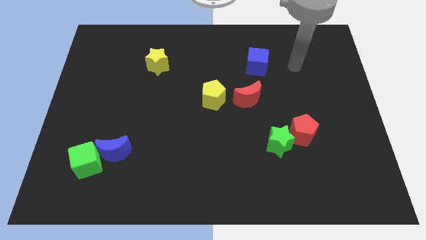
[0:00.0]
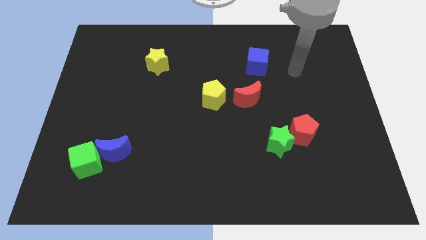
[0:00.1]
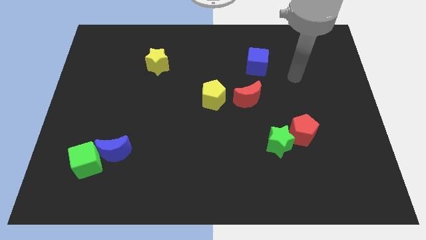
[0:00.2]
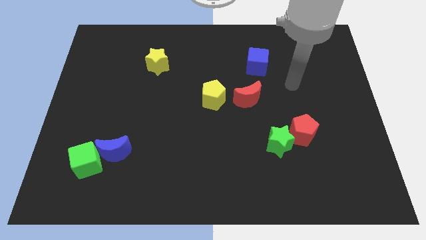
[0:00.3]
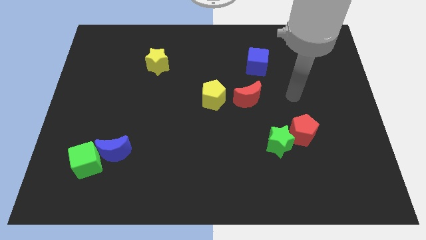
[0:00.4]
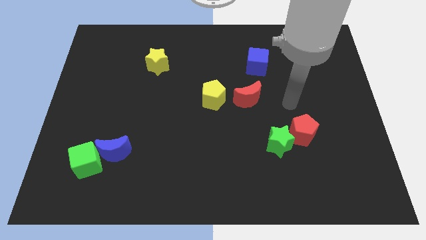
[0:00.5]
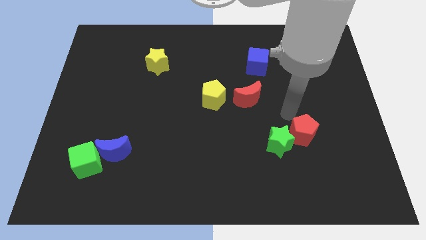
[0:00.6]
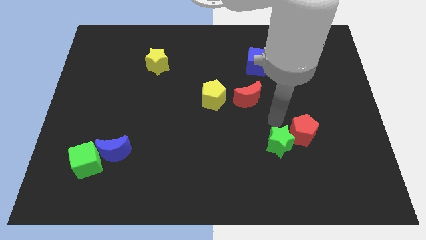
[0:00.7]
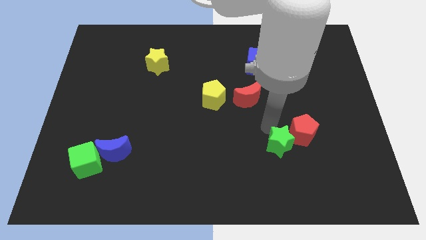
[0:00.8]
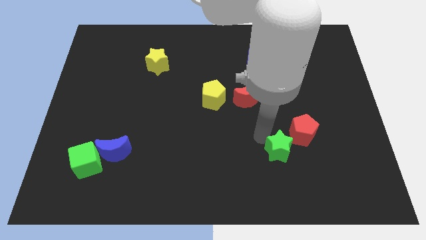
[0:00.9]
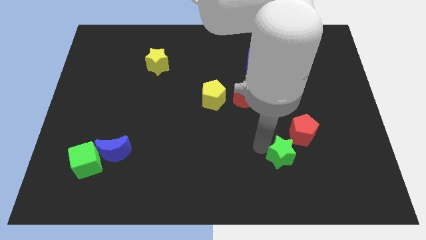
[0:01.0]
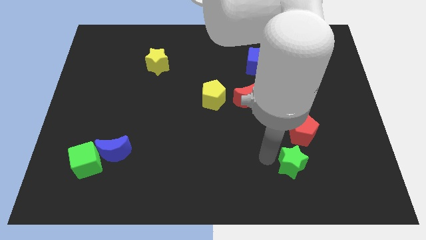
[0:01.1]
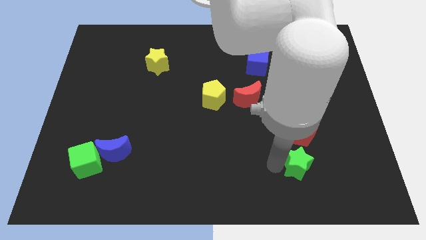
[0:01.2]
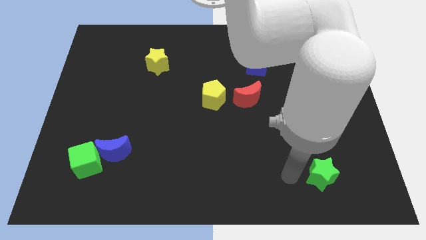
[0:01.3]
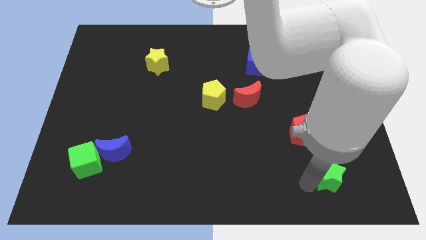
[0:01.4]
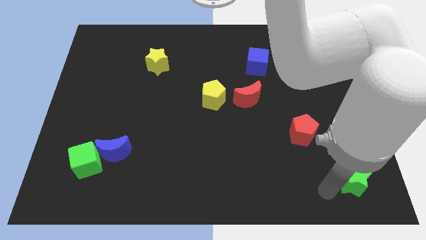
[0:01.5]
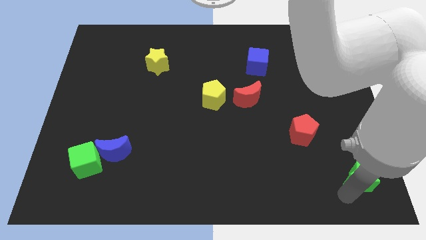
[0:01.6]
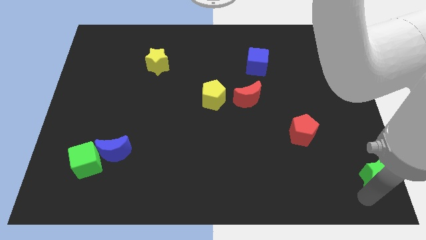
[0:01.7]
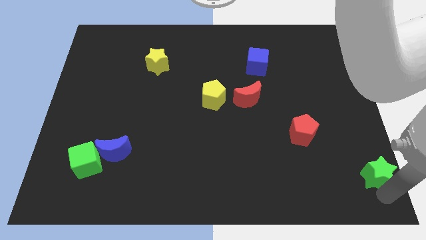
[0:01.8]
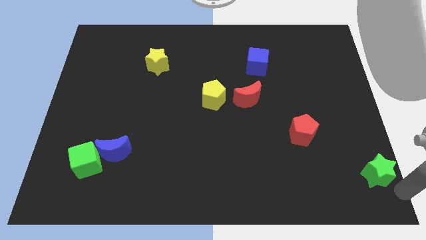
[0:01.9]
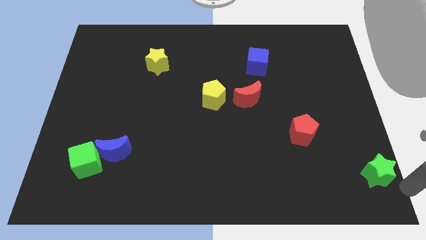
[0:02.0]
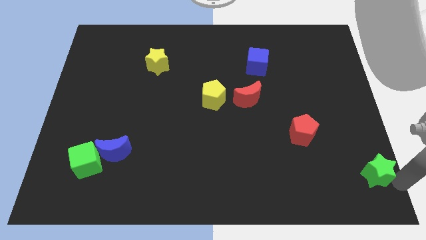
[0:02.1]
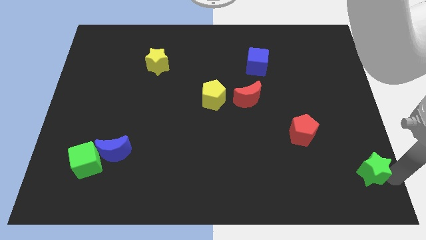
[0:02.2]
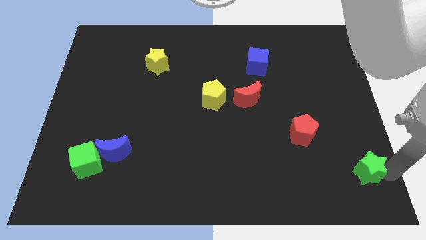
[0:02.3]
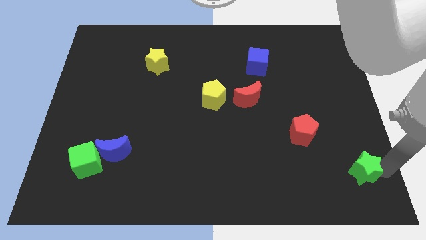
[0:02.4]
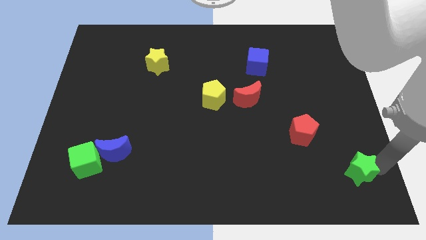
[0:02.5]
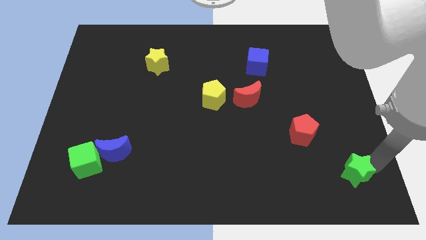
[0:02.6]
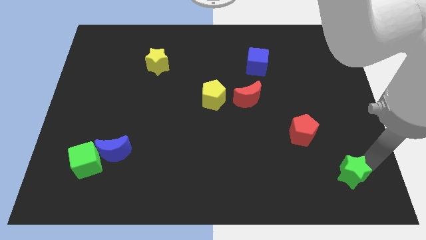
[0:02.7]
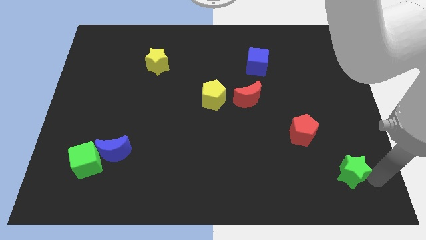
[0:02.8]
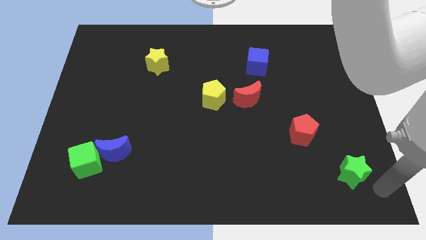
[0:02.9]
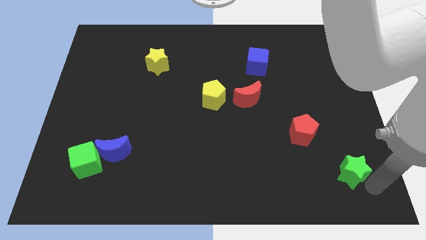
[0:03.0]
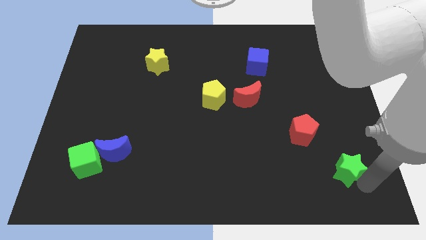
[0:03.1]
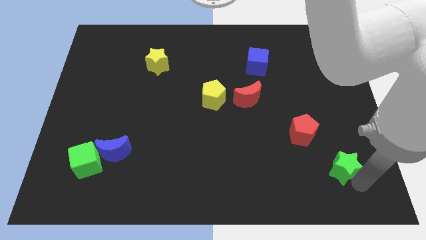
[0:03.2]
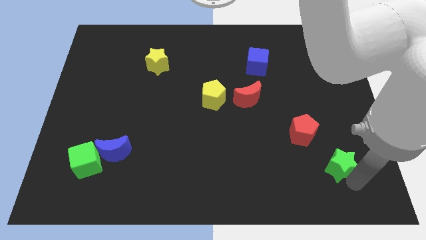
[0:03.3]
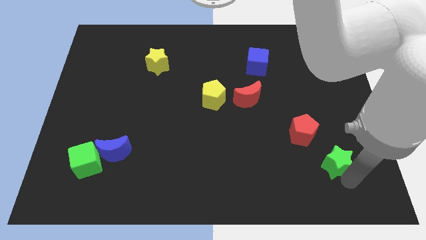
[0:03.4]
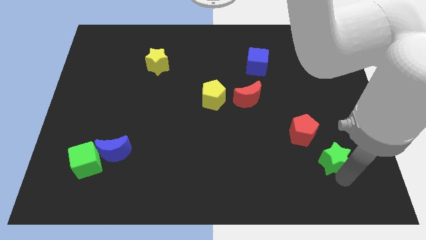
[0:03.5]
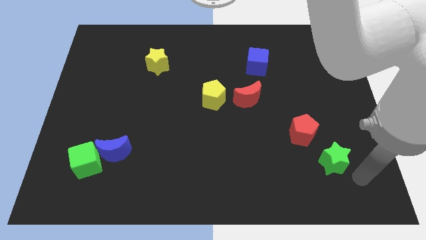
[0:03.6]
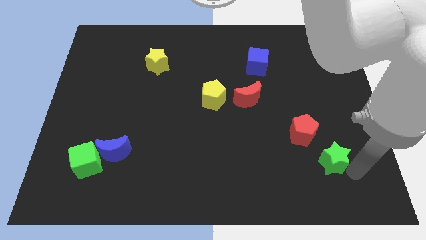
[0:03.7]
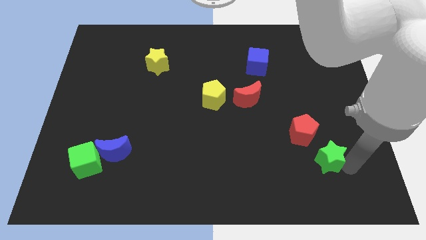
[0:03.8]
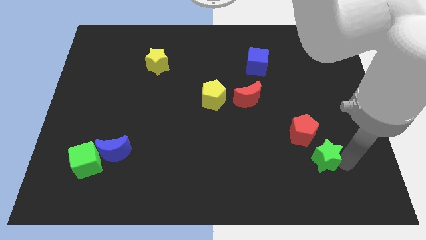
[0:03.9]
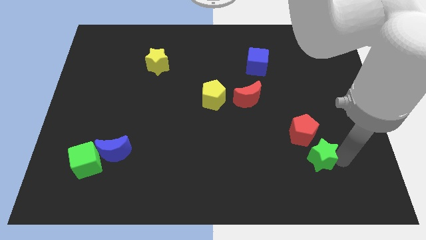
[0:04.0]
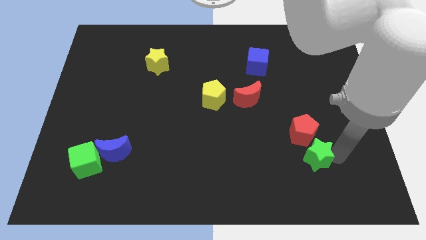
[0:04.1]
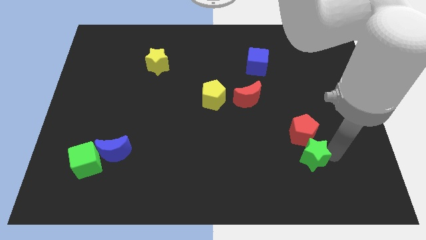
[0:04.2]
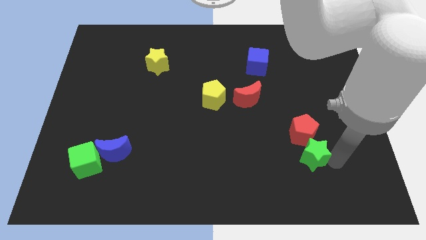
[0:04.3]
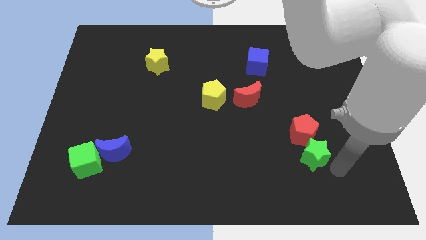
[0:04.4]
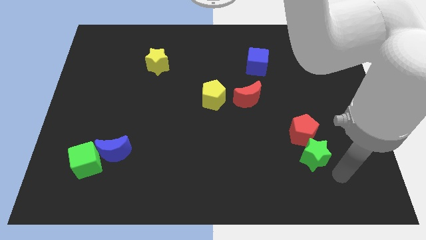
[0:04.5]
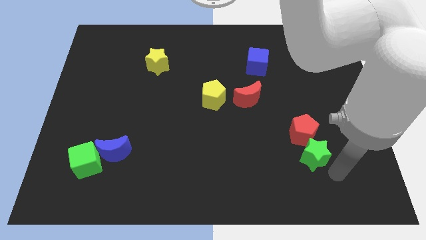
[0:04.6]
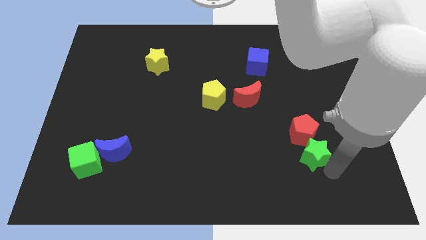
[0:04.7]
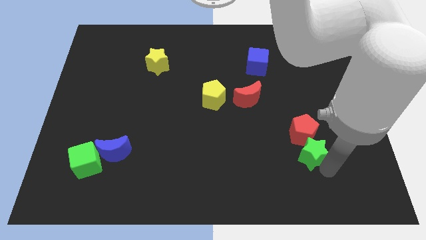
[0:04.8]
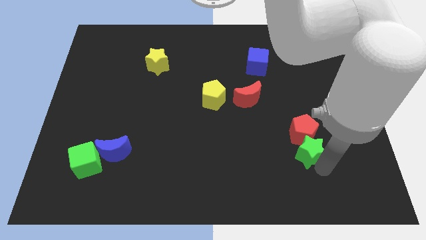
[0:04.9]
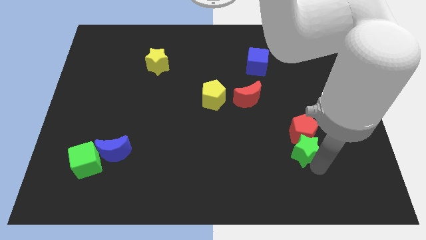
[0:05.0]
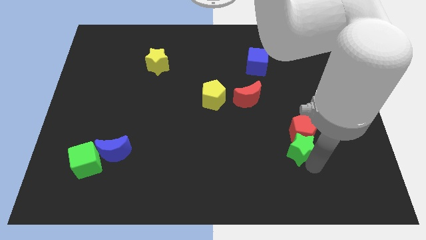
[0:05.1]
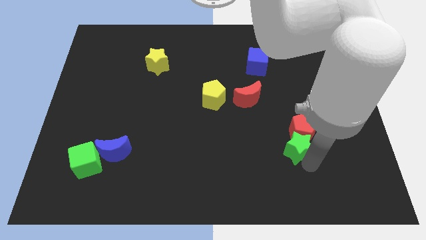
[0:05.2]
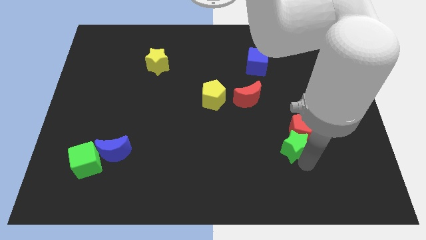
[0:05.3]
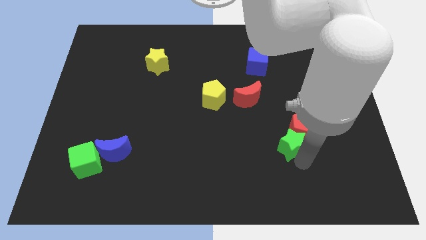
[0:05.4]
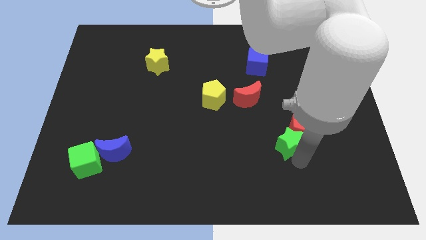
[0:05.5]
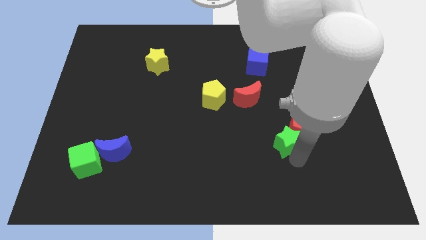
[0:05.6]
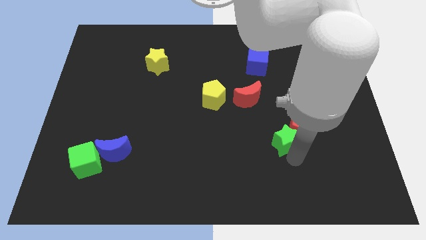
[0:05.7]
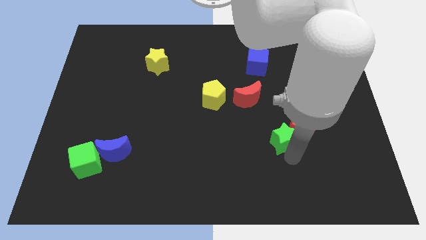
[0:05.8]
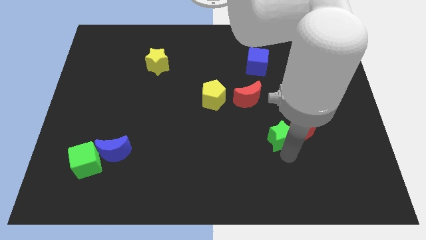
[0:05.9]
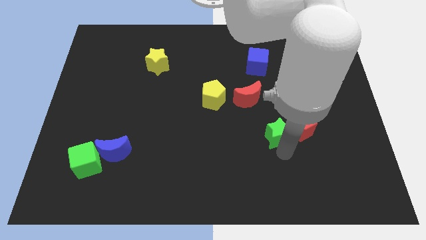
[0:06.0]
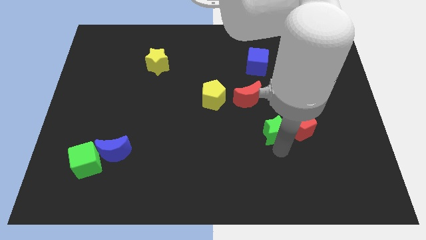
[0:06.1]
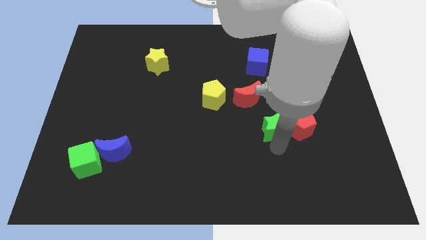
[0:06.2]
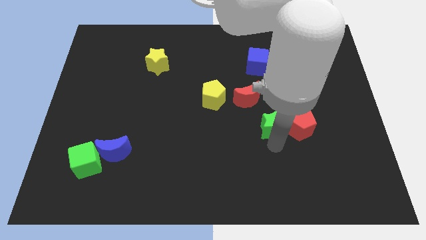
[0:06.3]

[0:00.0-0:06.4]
slide the green star diagonally up and to the left of the red pentagon
